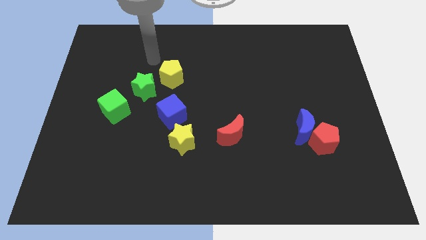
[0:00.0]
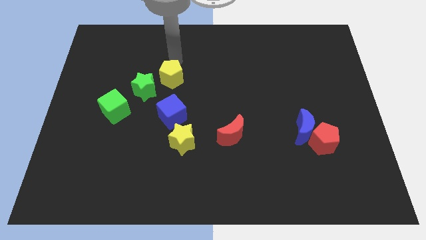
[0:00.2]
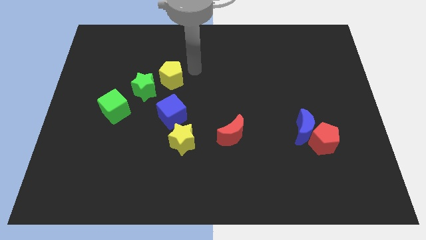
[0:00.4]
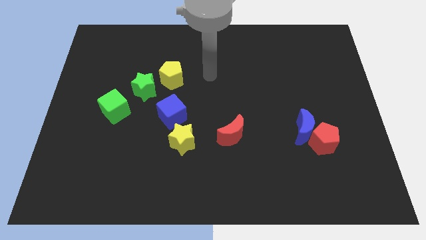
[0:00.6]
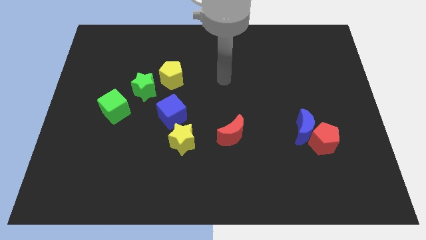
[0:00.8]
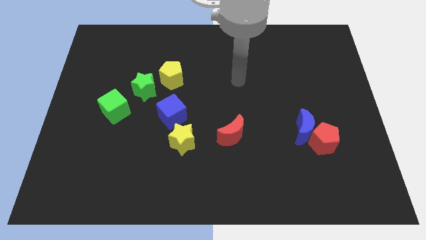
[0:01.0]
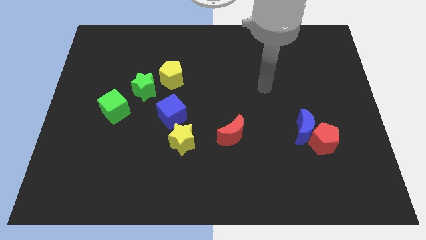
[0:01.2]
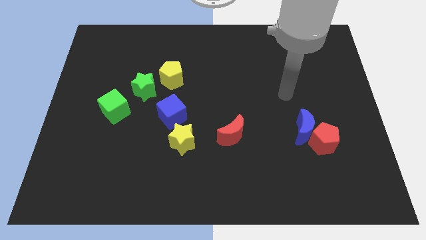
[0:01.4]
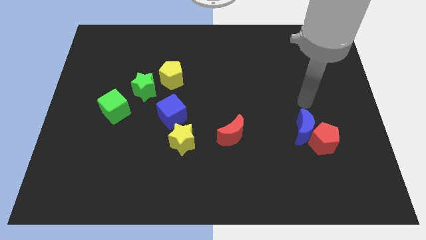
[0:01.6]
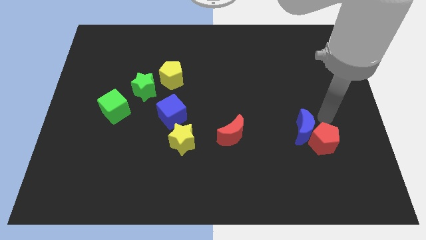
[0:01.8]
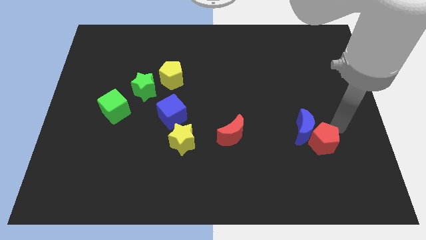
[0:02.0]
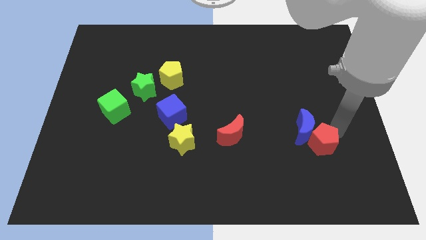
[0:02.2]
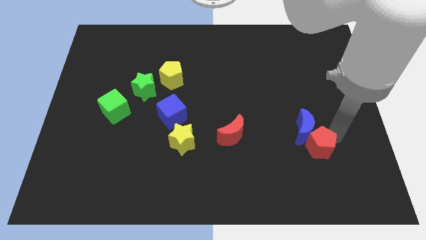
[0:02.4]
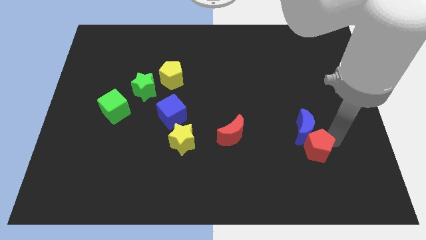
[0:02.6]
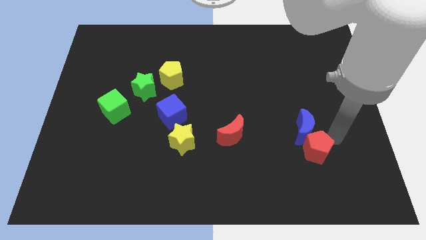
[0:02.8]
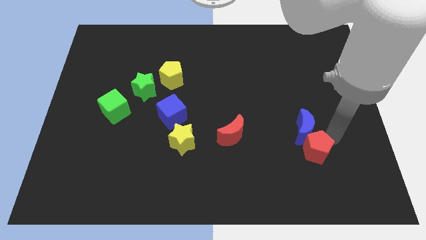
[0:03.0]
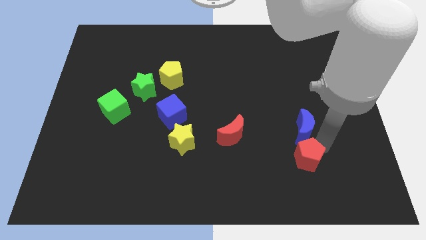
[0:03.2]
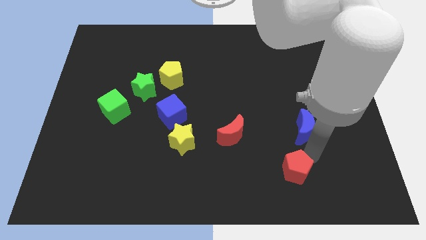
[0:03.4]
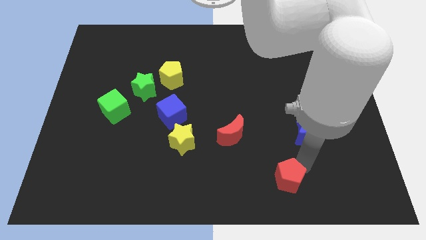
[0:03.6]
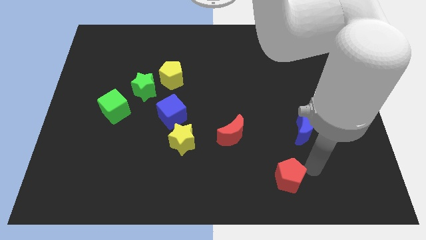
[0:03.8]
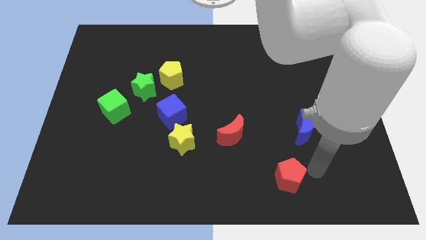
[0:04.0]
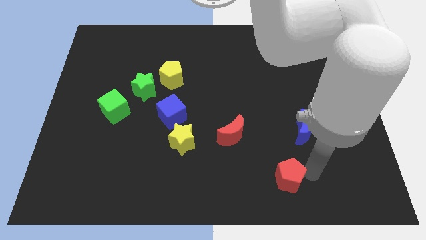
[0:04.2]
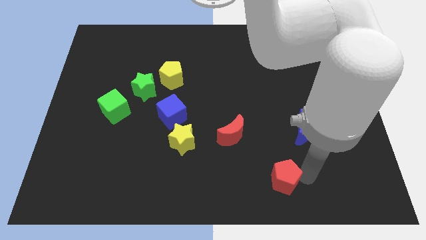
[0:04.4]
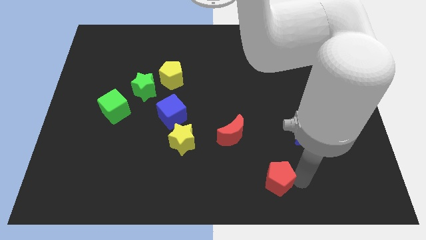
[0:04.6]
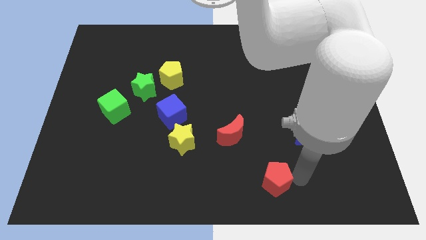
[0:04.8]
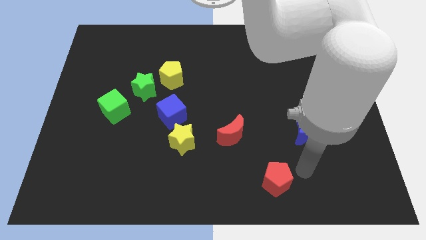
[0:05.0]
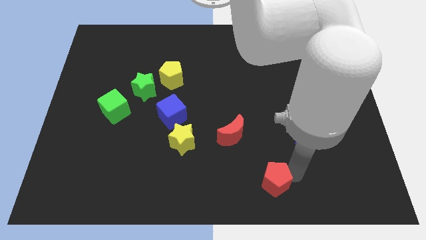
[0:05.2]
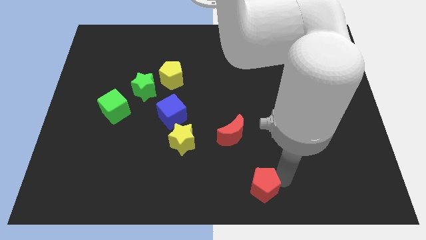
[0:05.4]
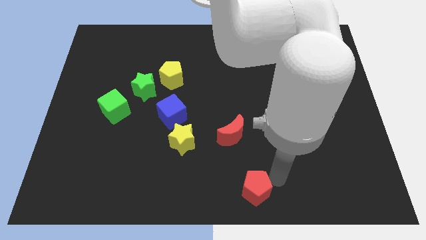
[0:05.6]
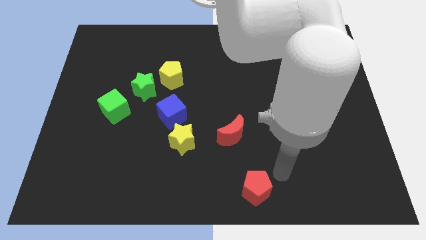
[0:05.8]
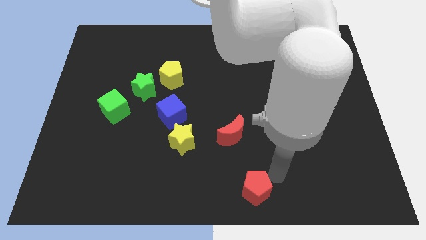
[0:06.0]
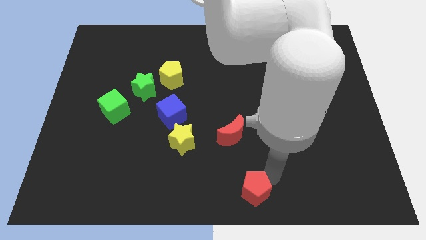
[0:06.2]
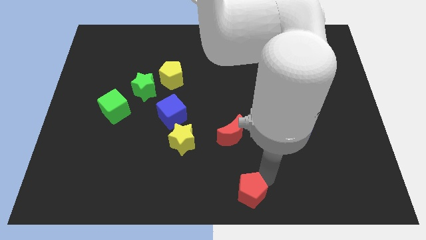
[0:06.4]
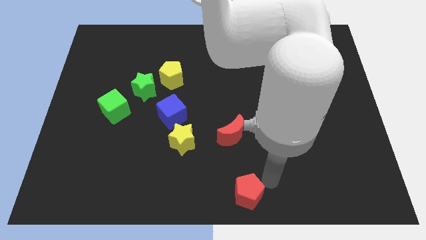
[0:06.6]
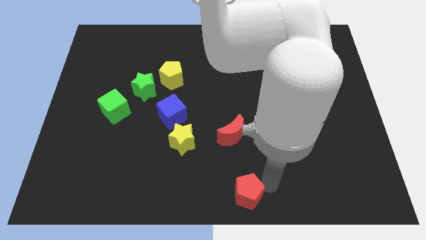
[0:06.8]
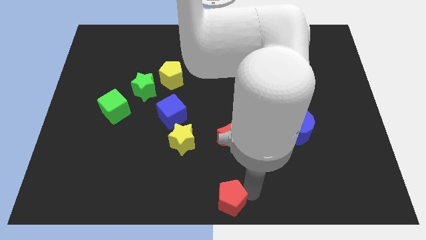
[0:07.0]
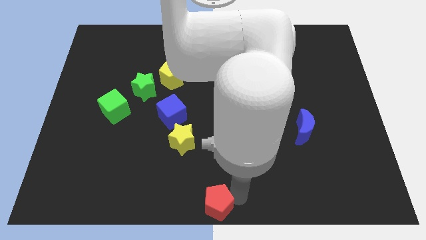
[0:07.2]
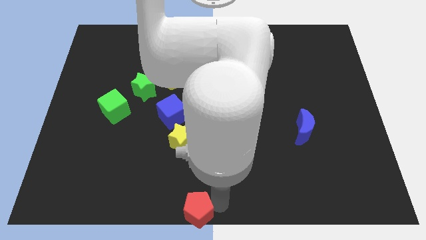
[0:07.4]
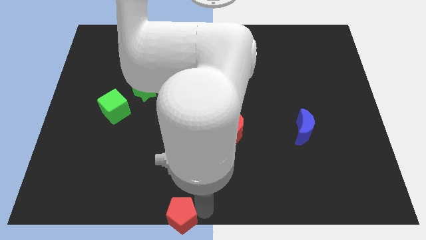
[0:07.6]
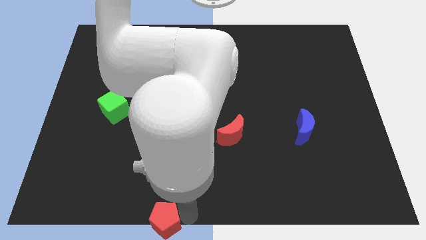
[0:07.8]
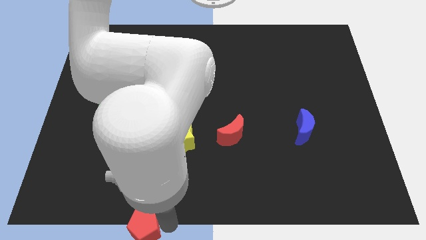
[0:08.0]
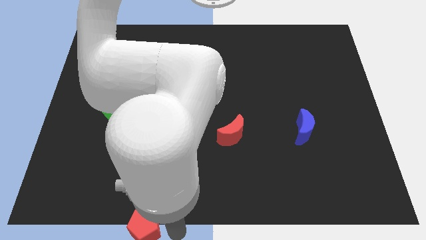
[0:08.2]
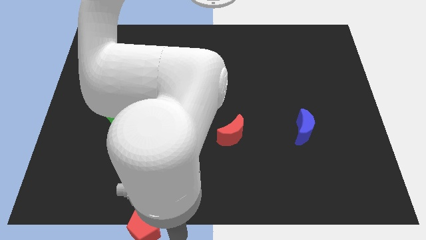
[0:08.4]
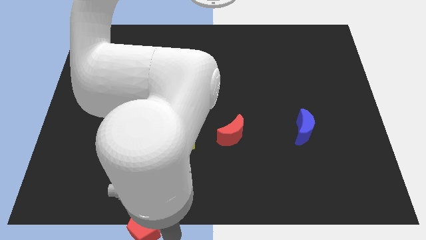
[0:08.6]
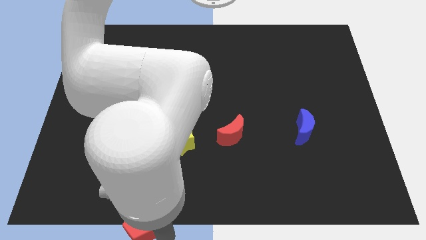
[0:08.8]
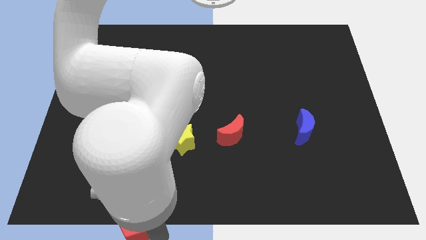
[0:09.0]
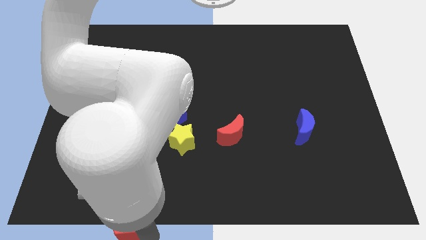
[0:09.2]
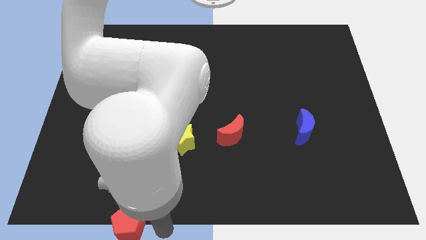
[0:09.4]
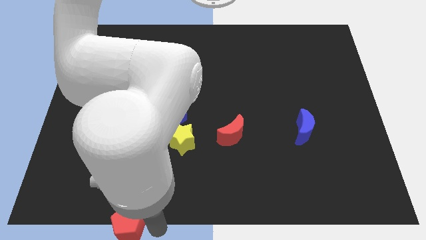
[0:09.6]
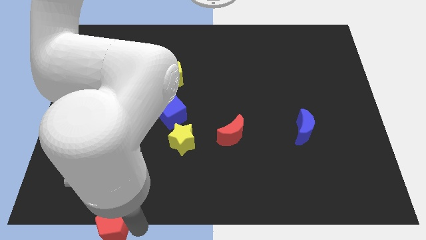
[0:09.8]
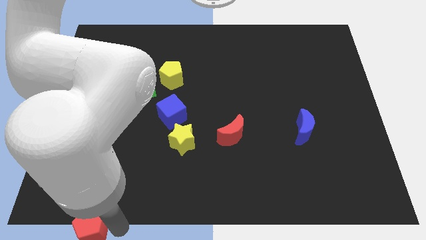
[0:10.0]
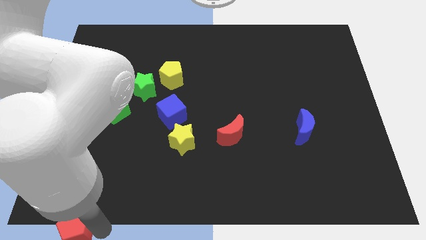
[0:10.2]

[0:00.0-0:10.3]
push the red pentagon to the lower left corner

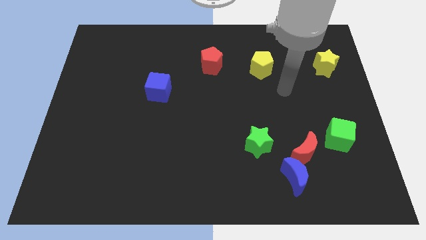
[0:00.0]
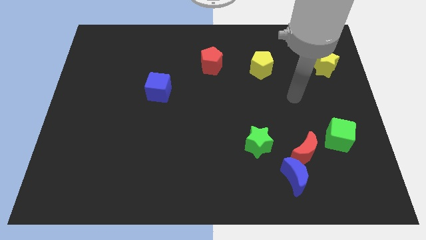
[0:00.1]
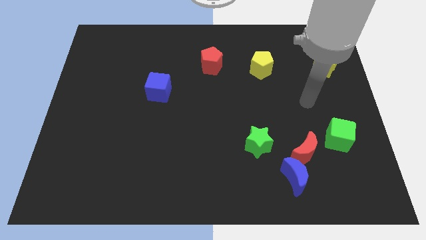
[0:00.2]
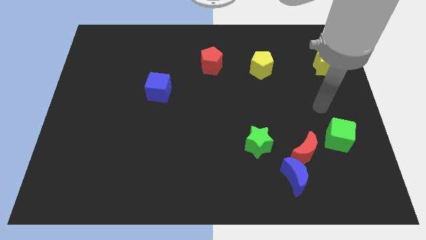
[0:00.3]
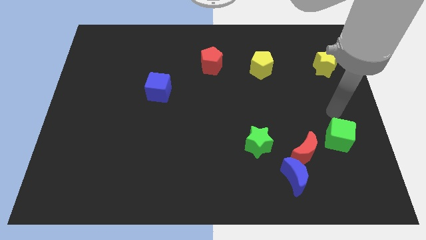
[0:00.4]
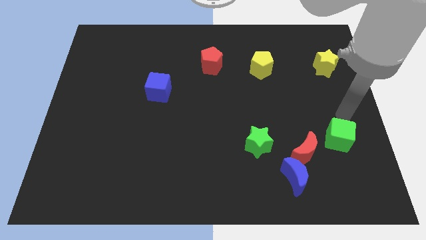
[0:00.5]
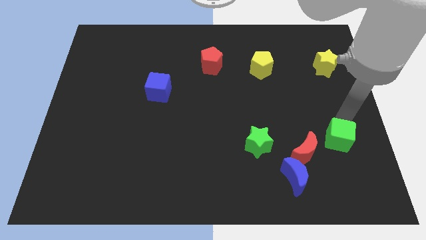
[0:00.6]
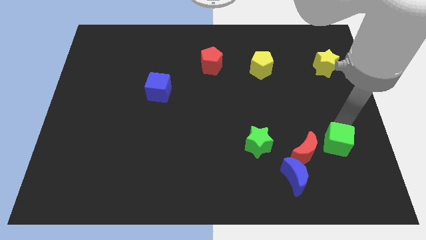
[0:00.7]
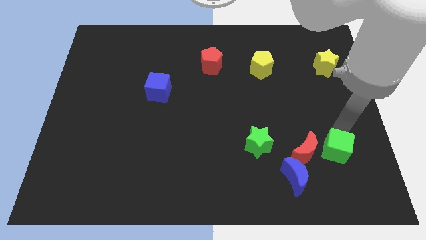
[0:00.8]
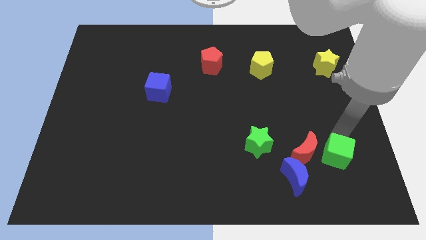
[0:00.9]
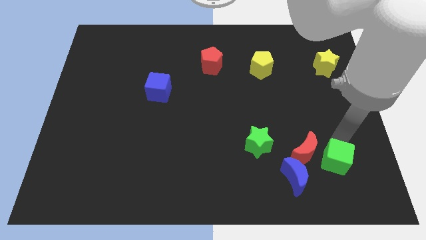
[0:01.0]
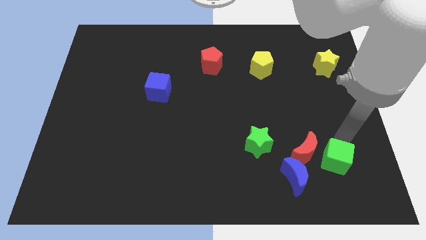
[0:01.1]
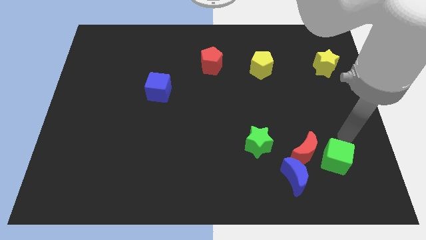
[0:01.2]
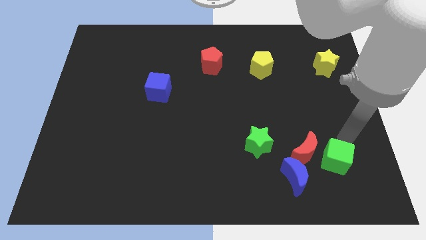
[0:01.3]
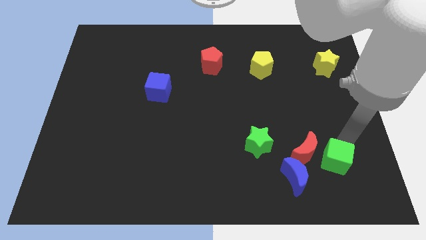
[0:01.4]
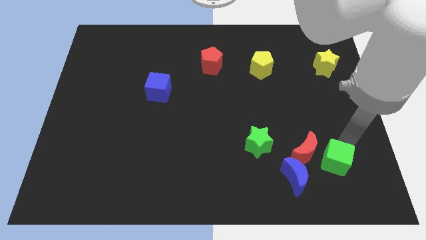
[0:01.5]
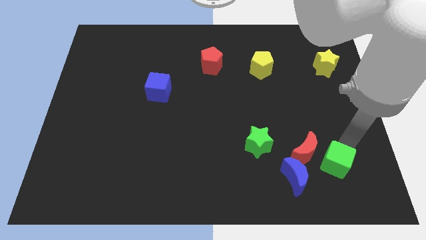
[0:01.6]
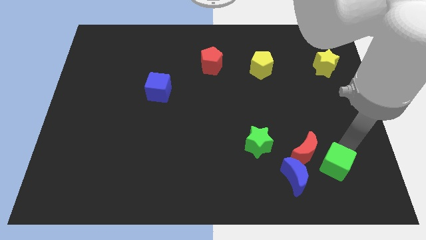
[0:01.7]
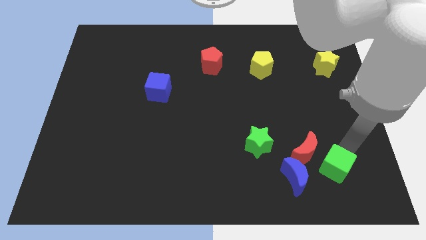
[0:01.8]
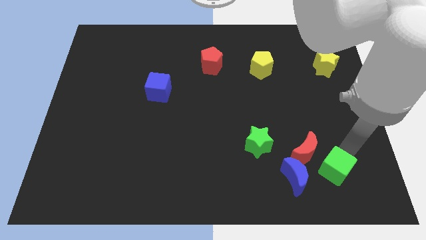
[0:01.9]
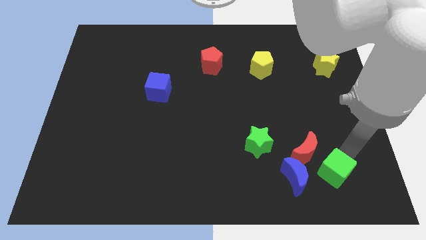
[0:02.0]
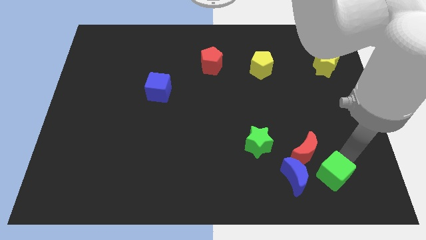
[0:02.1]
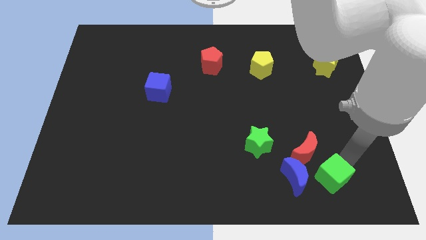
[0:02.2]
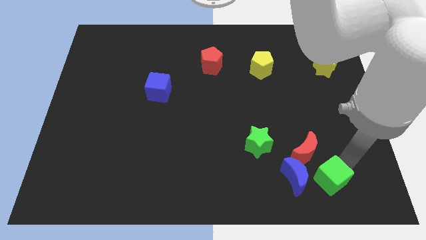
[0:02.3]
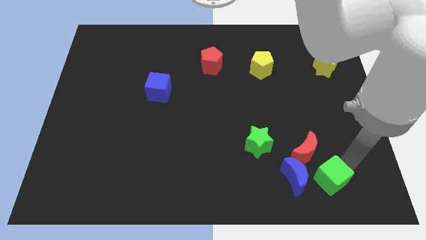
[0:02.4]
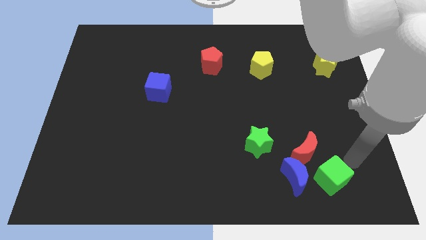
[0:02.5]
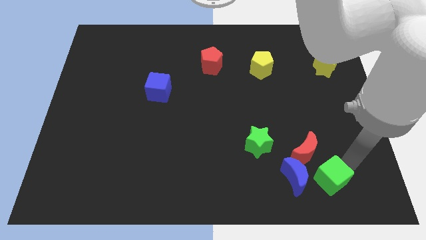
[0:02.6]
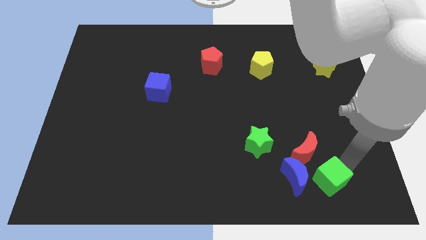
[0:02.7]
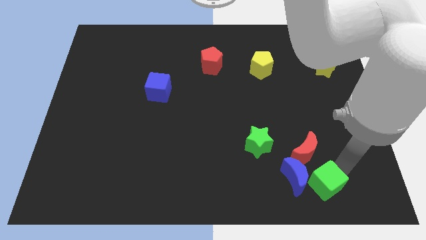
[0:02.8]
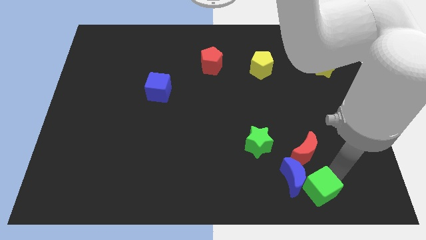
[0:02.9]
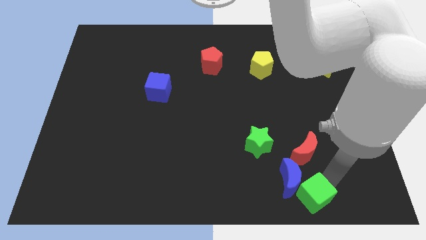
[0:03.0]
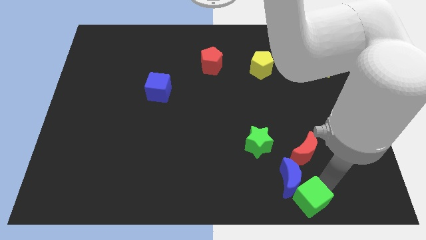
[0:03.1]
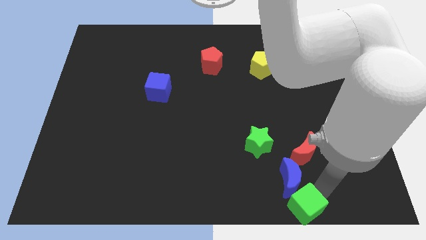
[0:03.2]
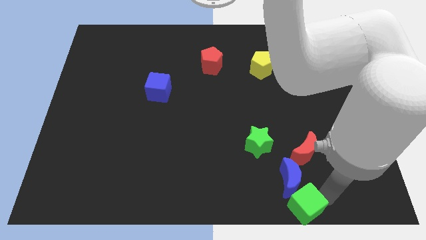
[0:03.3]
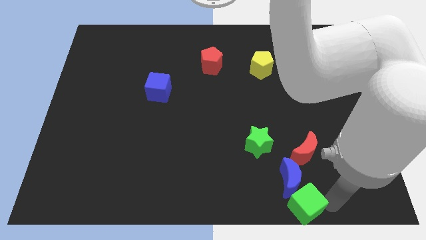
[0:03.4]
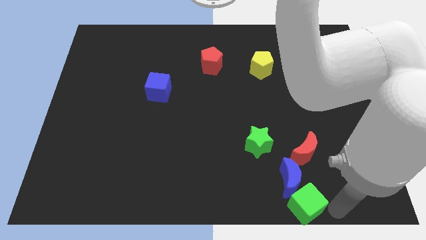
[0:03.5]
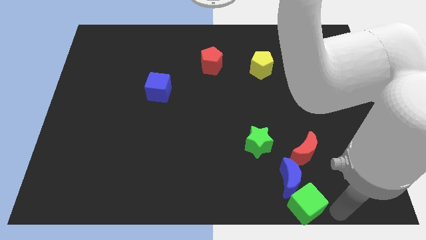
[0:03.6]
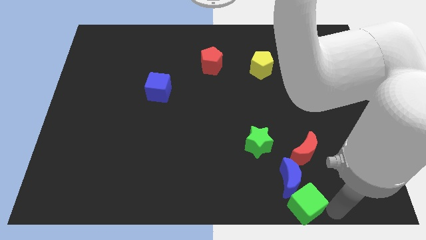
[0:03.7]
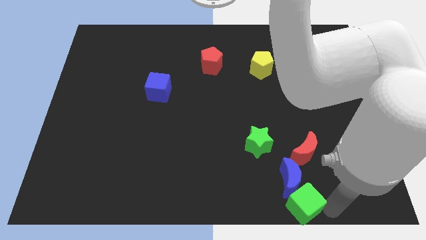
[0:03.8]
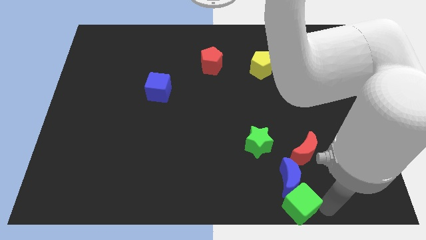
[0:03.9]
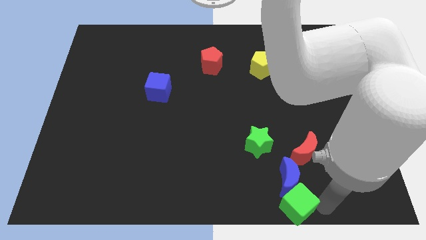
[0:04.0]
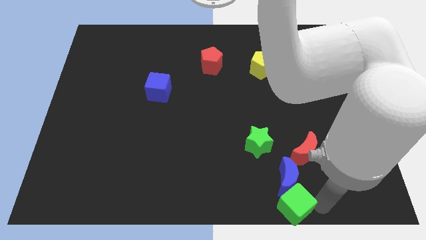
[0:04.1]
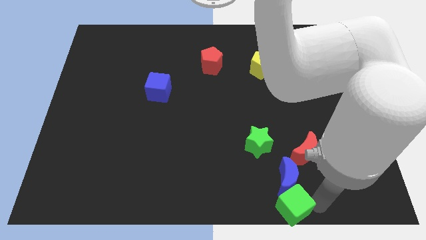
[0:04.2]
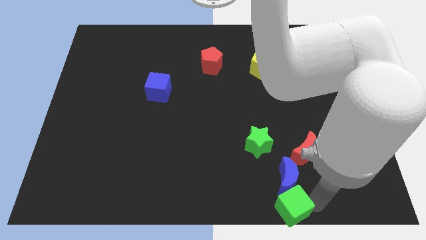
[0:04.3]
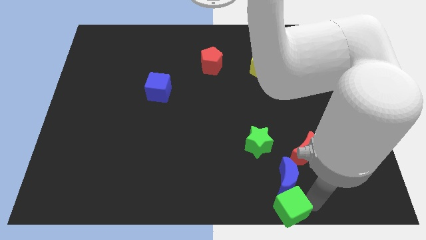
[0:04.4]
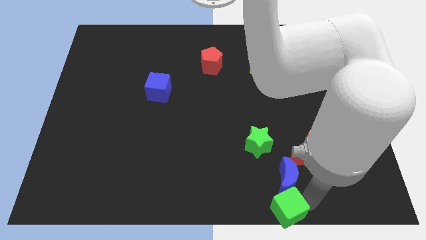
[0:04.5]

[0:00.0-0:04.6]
put the green cube to the bottom side
